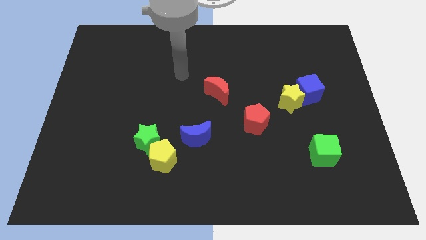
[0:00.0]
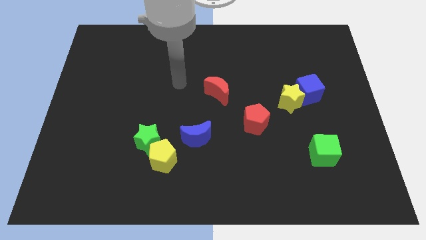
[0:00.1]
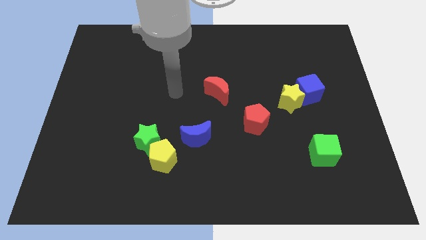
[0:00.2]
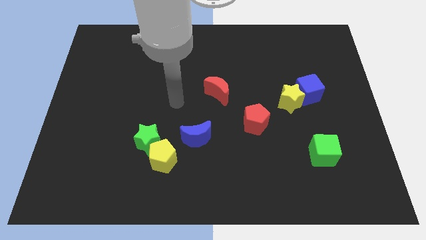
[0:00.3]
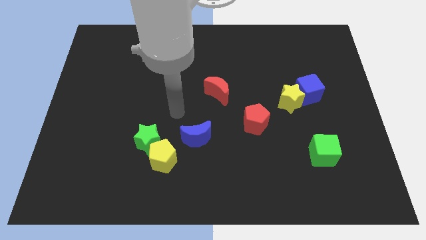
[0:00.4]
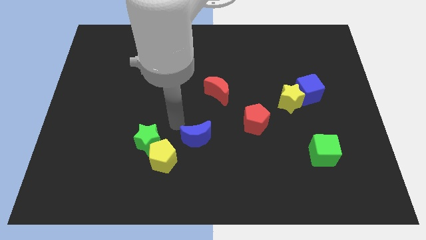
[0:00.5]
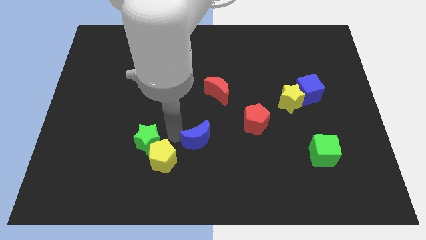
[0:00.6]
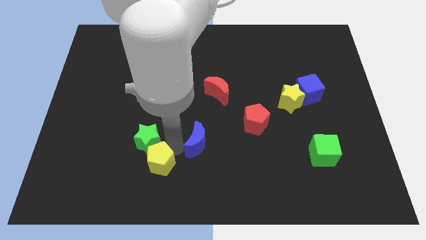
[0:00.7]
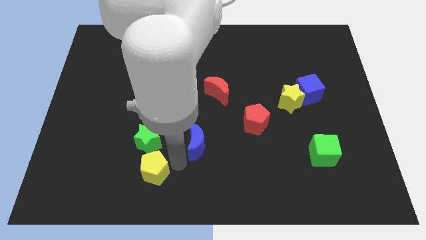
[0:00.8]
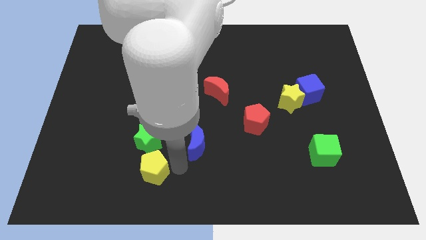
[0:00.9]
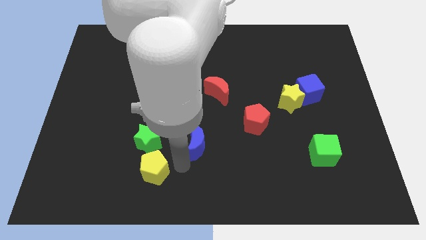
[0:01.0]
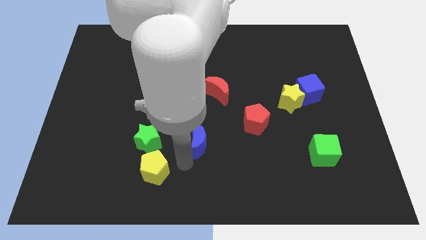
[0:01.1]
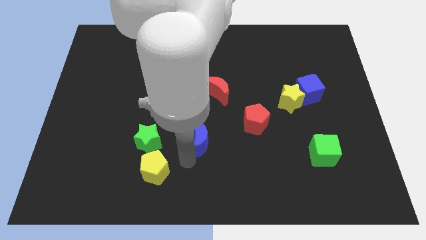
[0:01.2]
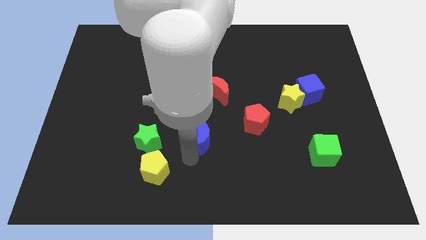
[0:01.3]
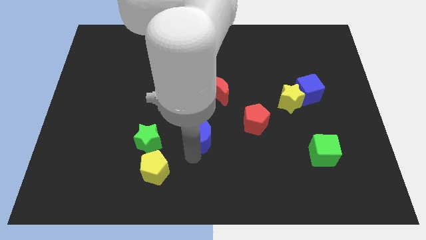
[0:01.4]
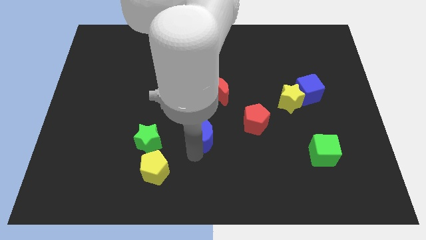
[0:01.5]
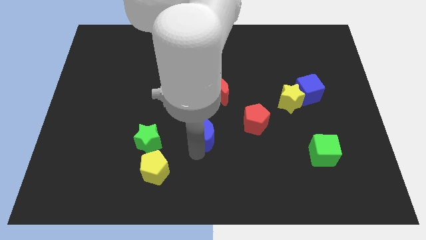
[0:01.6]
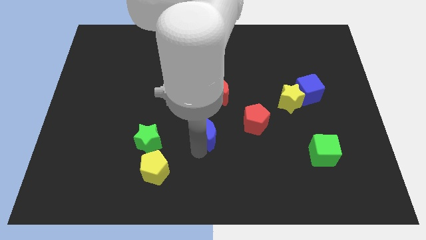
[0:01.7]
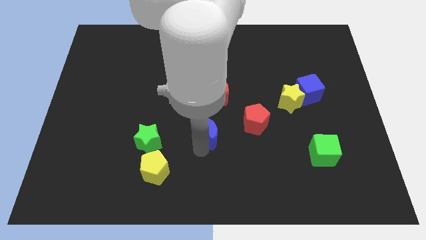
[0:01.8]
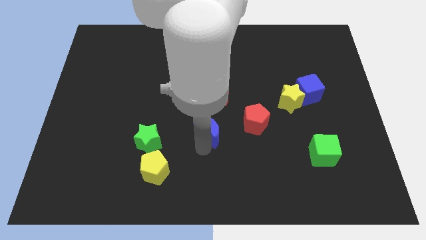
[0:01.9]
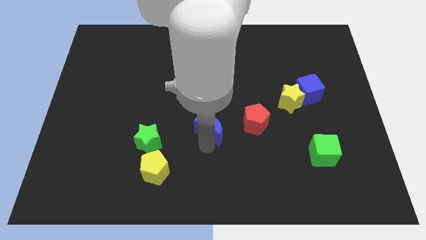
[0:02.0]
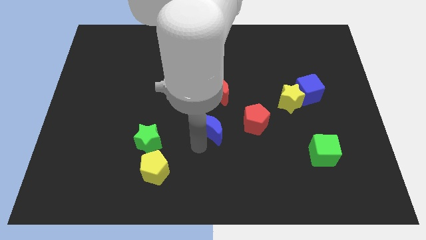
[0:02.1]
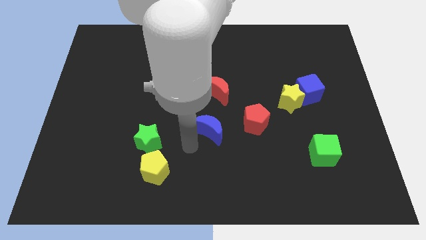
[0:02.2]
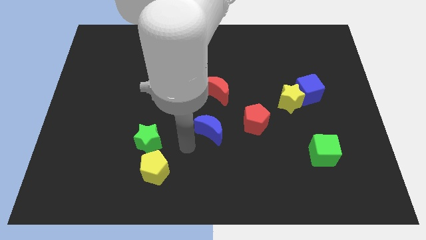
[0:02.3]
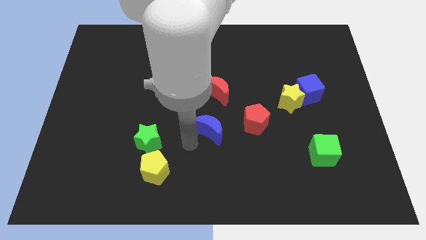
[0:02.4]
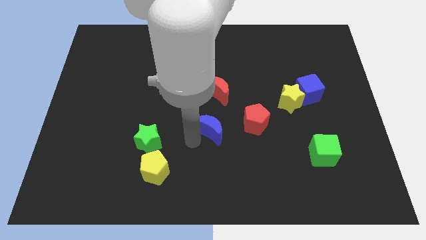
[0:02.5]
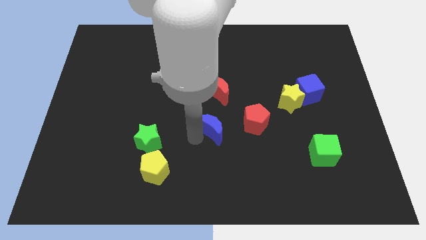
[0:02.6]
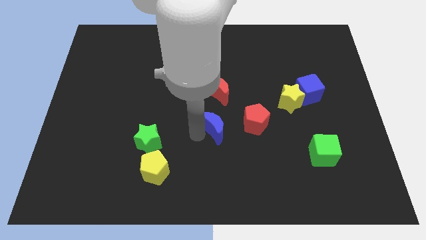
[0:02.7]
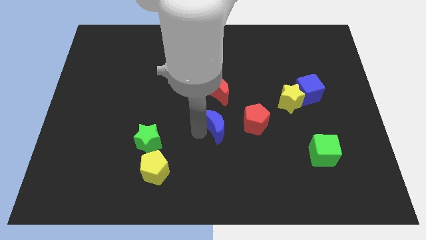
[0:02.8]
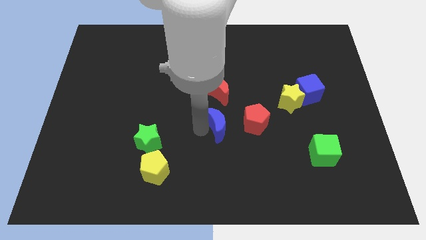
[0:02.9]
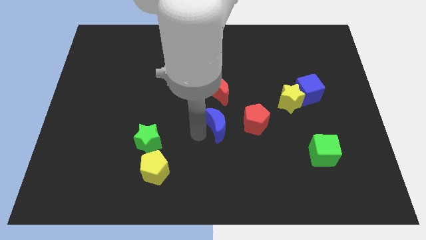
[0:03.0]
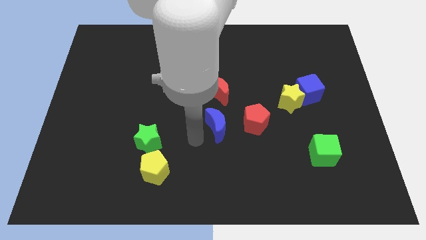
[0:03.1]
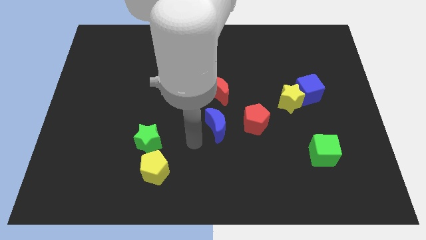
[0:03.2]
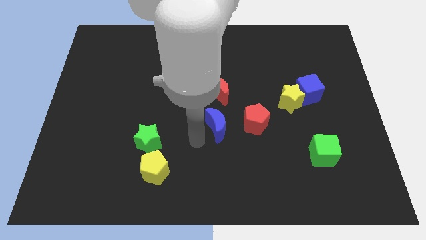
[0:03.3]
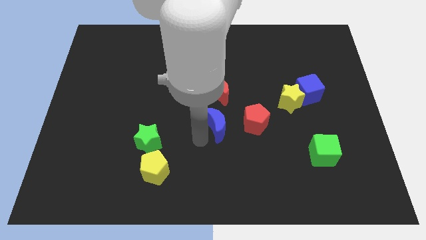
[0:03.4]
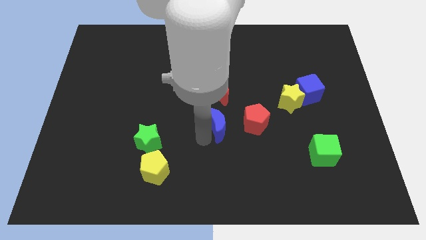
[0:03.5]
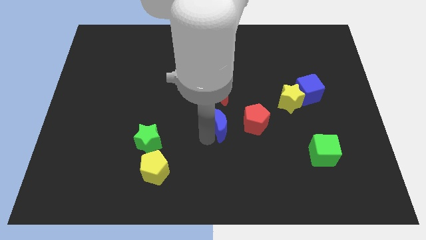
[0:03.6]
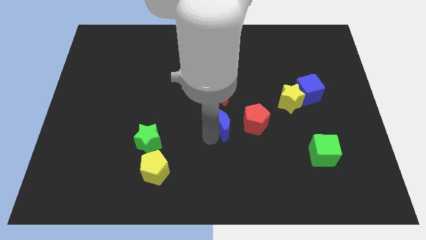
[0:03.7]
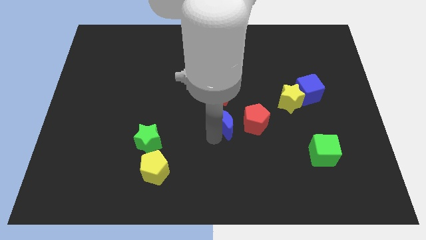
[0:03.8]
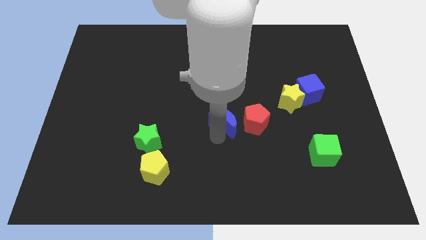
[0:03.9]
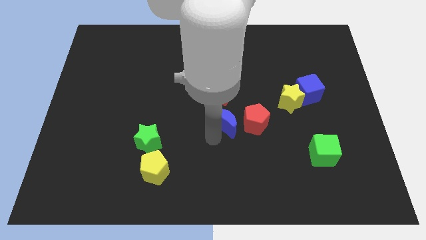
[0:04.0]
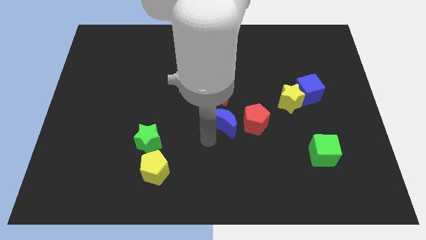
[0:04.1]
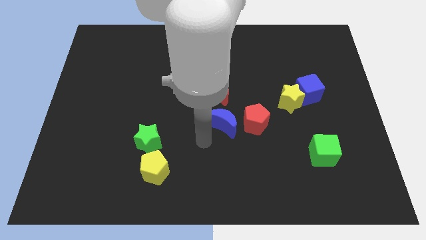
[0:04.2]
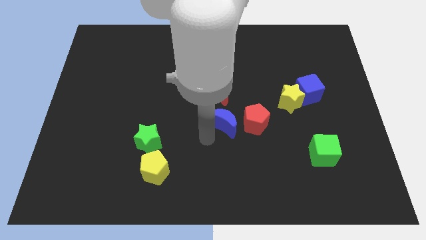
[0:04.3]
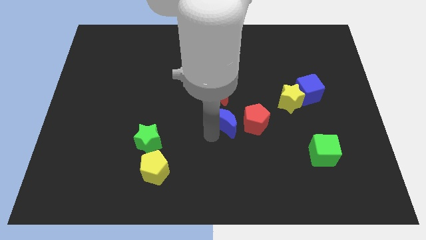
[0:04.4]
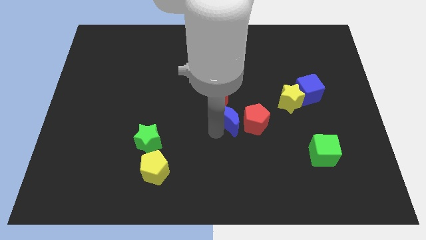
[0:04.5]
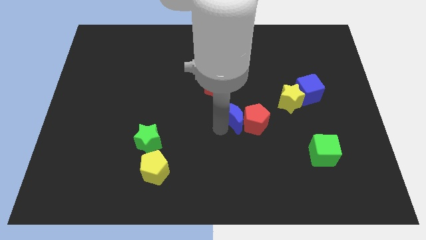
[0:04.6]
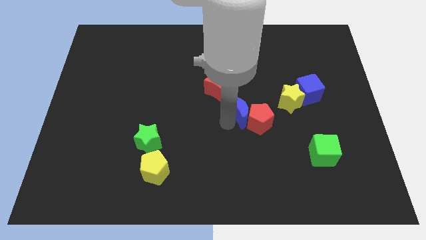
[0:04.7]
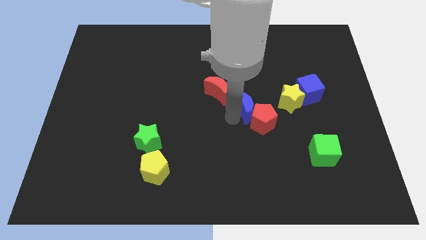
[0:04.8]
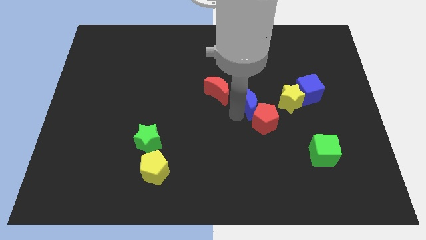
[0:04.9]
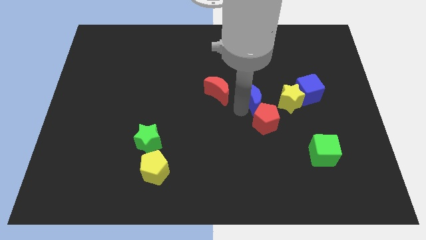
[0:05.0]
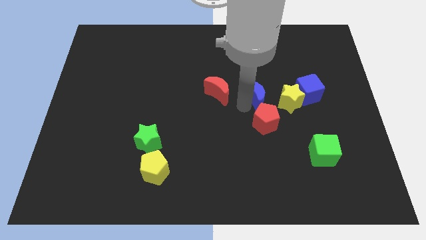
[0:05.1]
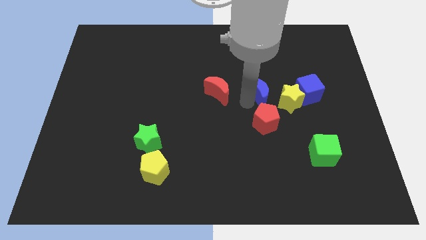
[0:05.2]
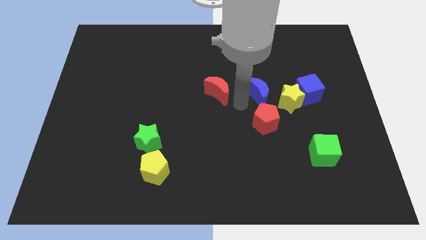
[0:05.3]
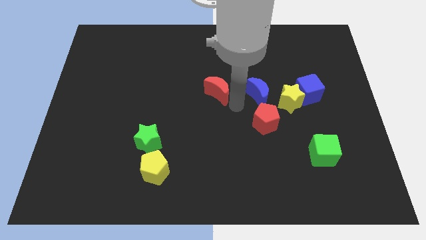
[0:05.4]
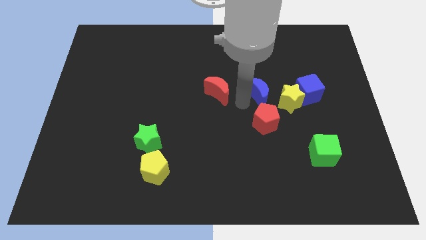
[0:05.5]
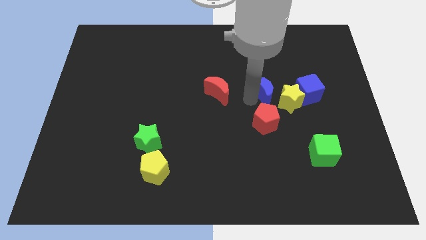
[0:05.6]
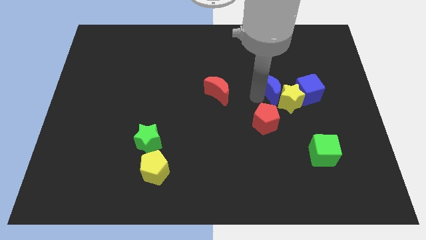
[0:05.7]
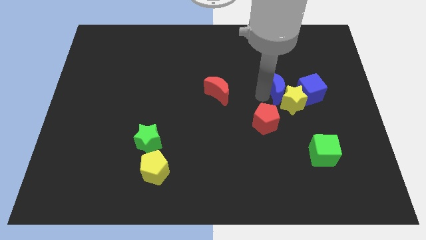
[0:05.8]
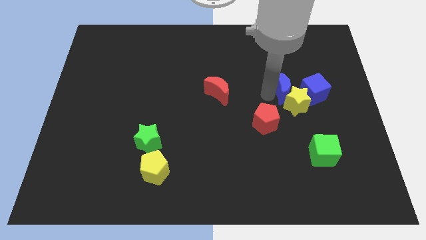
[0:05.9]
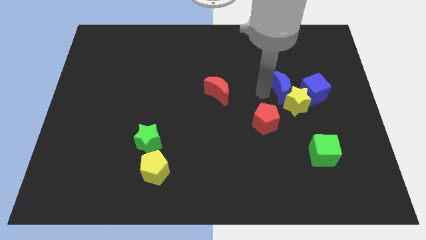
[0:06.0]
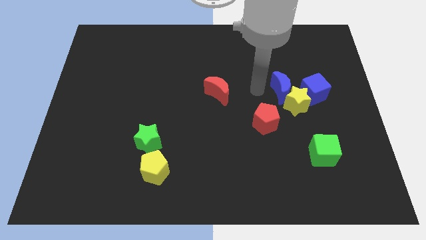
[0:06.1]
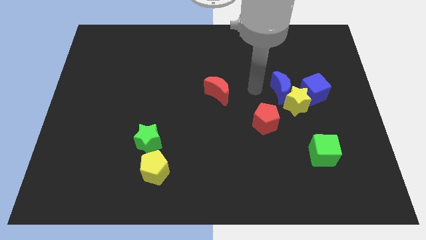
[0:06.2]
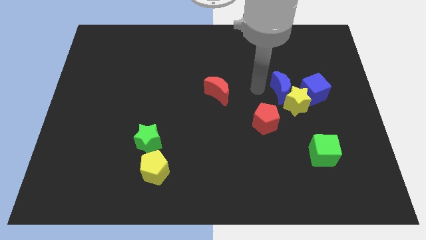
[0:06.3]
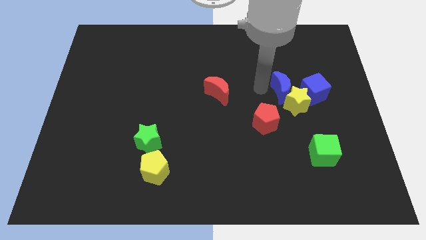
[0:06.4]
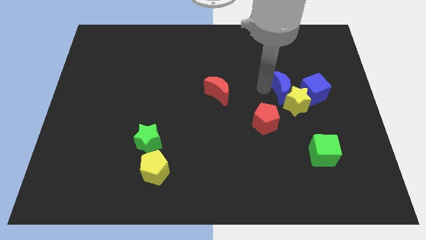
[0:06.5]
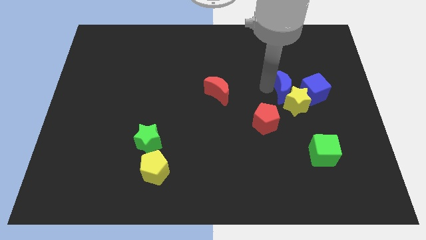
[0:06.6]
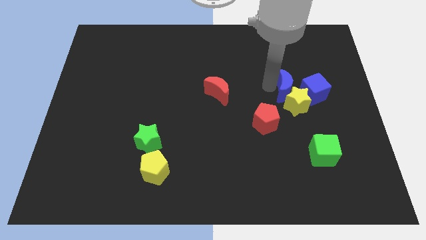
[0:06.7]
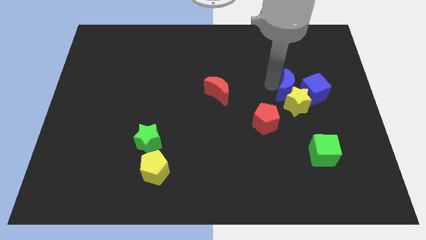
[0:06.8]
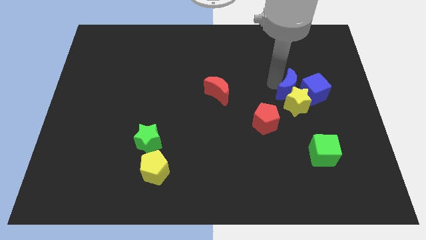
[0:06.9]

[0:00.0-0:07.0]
push the blue moon towards the blue cube
